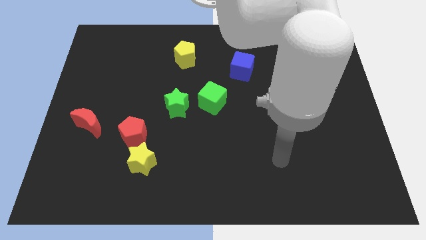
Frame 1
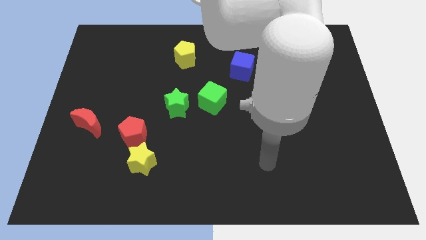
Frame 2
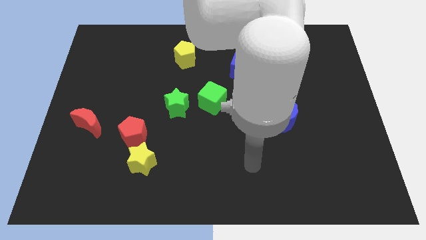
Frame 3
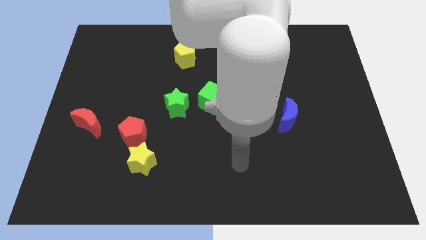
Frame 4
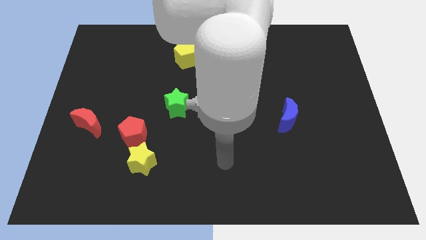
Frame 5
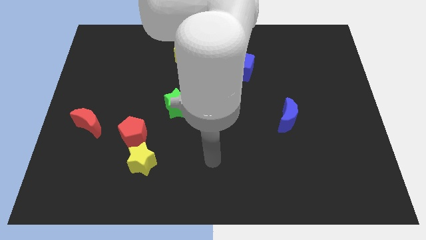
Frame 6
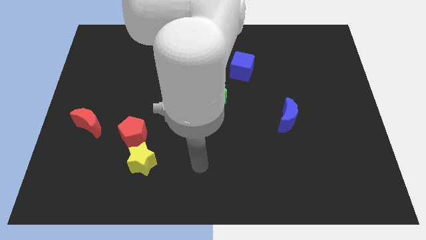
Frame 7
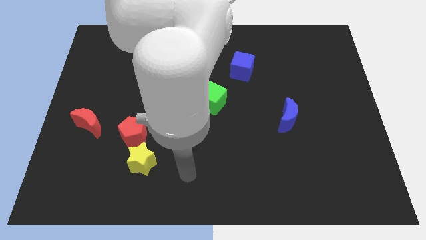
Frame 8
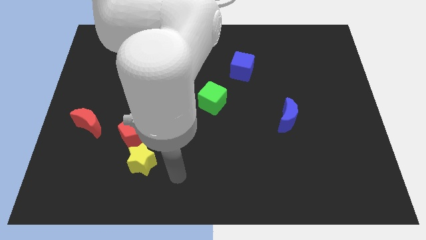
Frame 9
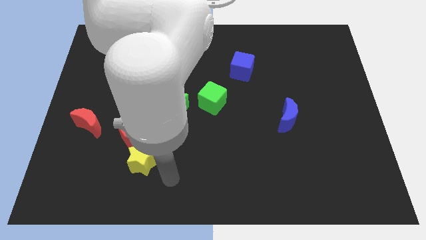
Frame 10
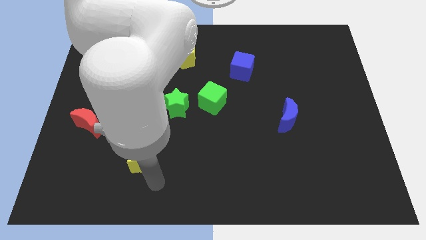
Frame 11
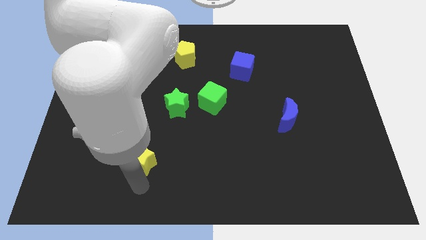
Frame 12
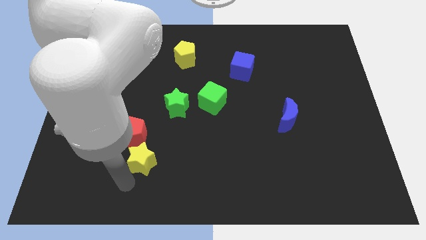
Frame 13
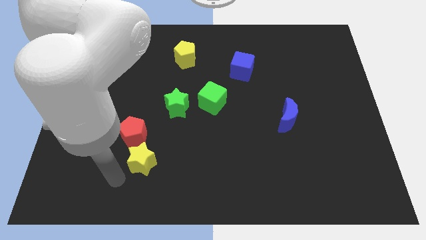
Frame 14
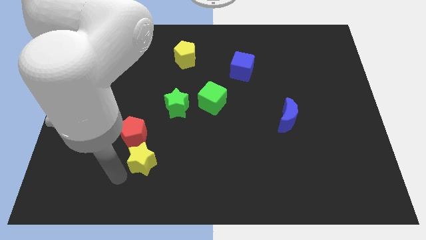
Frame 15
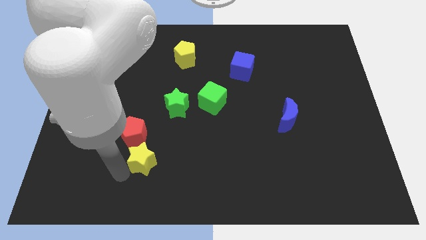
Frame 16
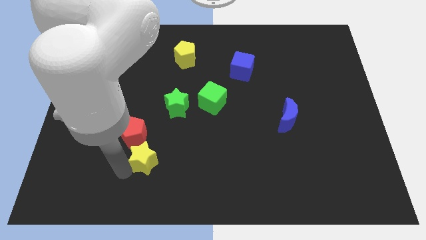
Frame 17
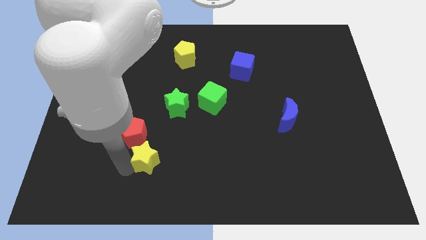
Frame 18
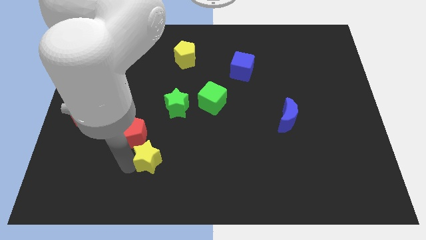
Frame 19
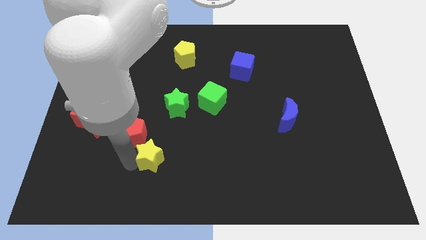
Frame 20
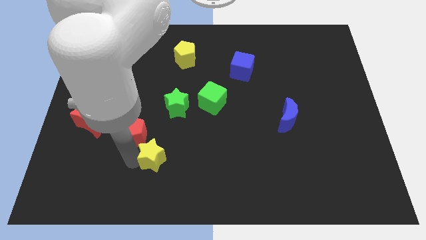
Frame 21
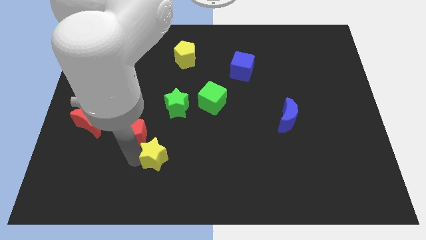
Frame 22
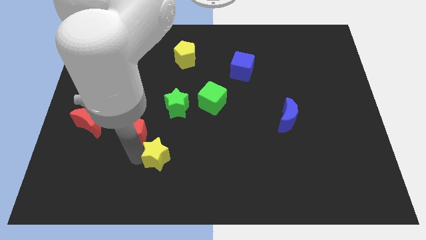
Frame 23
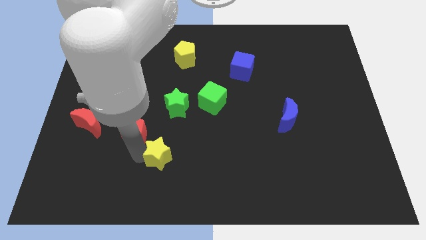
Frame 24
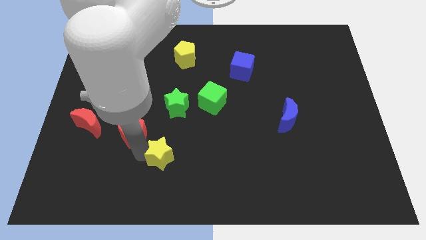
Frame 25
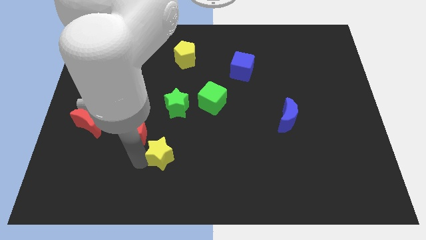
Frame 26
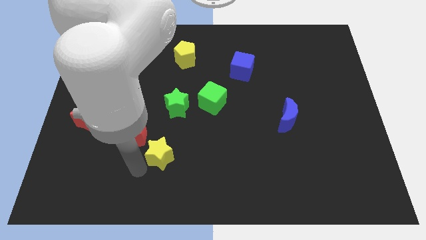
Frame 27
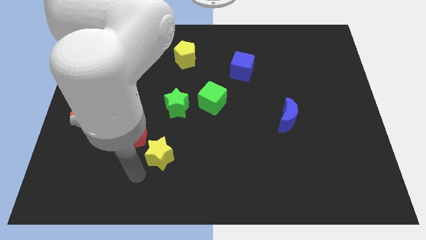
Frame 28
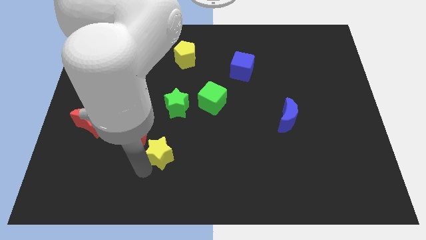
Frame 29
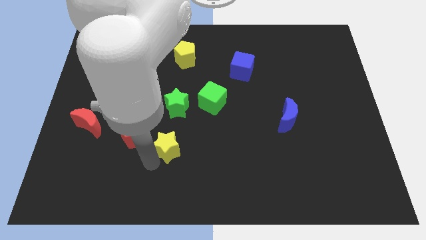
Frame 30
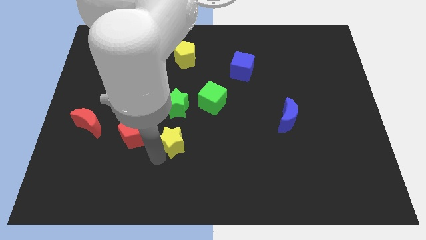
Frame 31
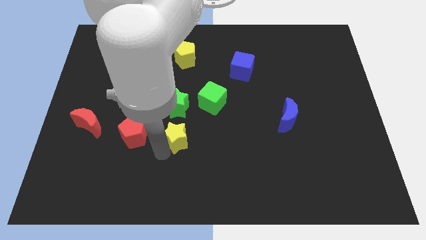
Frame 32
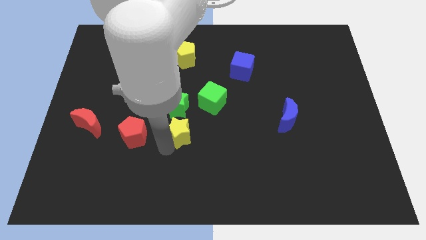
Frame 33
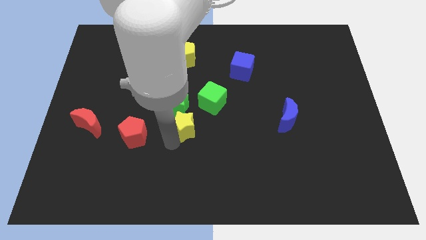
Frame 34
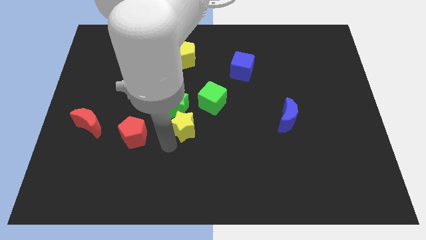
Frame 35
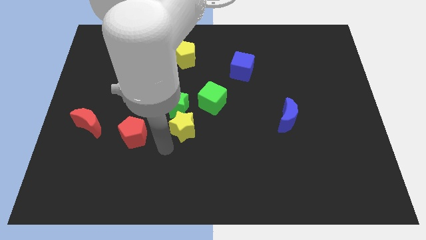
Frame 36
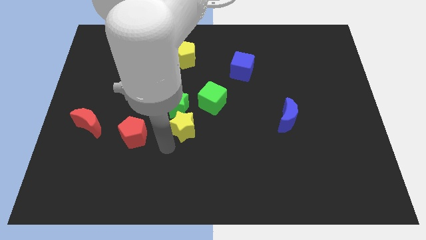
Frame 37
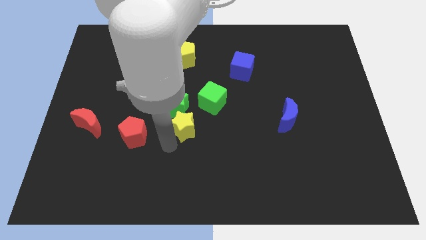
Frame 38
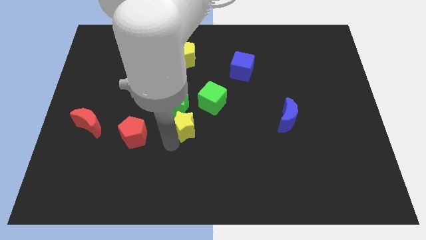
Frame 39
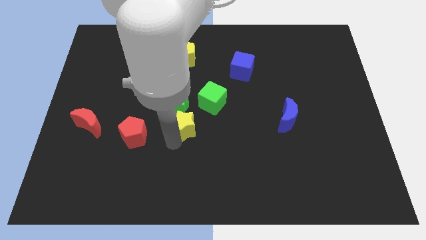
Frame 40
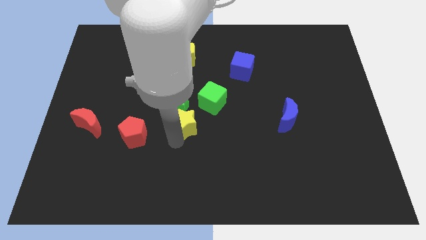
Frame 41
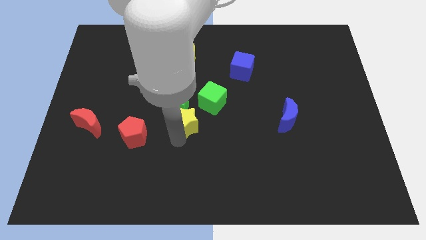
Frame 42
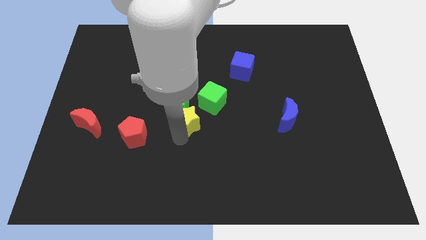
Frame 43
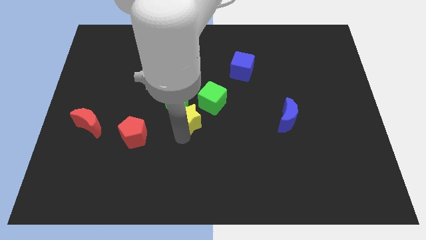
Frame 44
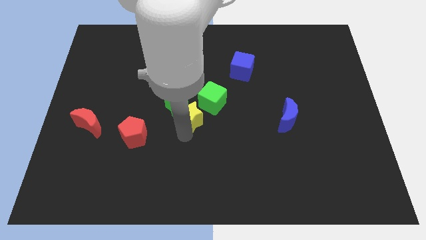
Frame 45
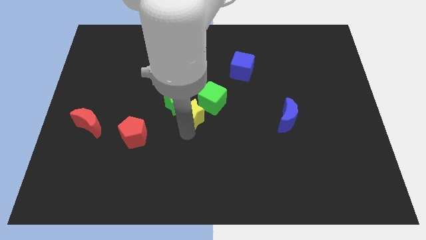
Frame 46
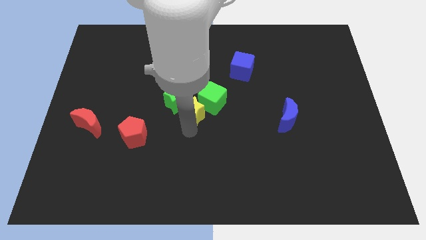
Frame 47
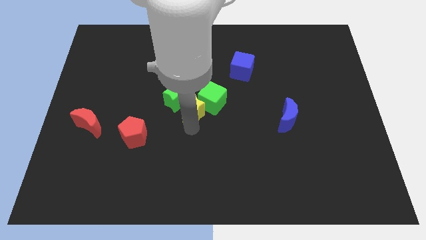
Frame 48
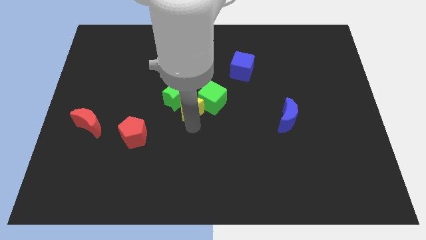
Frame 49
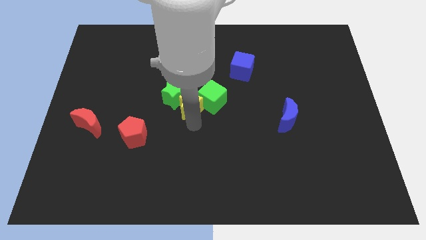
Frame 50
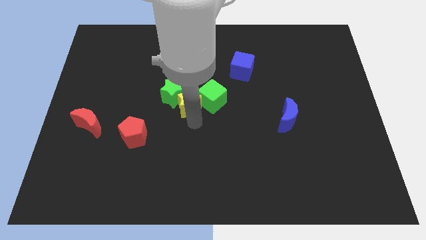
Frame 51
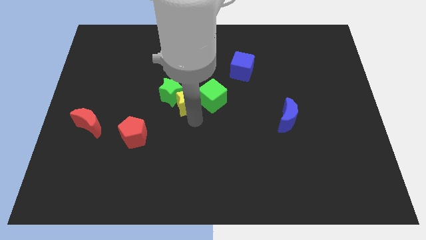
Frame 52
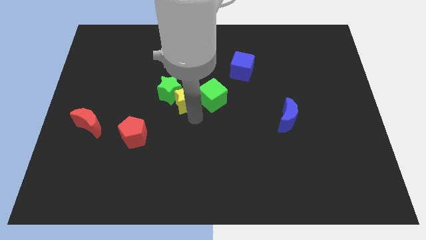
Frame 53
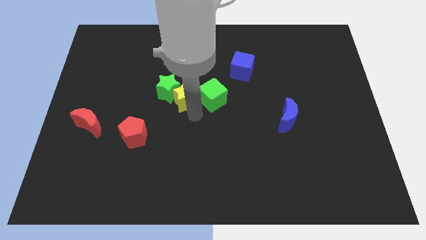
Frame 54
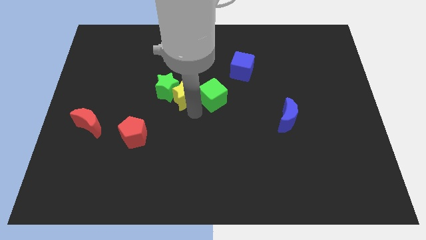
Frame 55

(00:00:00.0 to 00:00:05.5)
push the yellow star diagonally up and to the left of the green cube

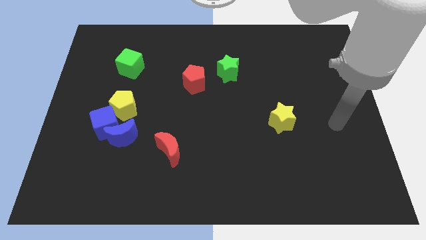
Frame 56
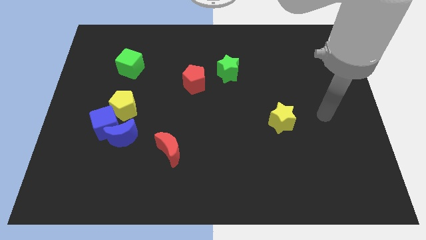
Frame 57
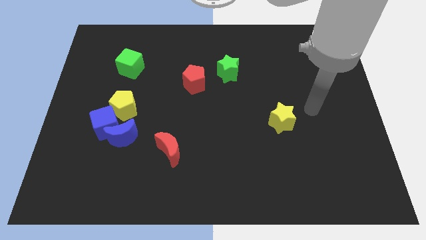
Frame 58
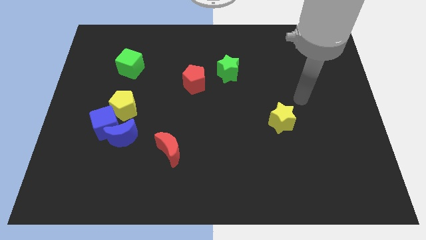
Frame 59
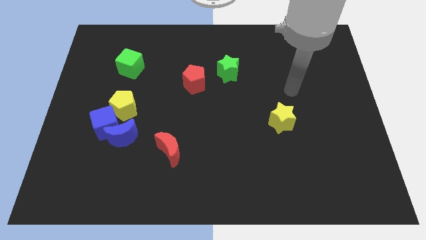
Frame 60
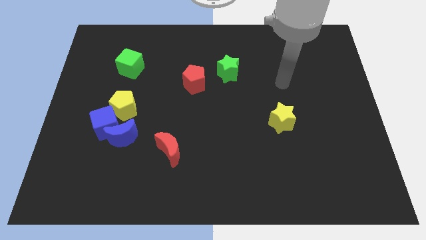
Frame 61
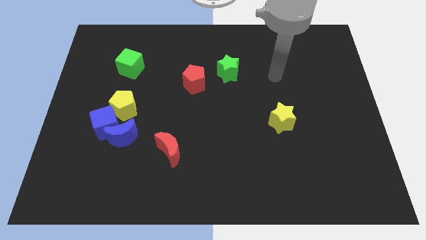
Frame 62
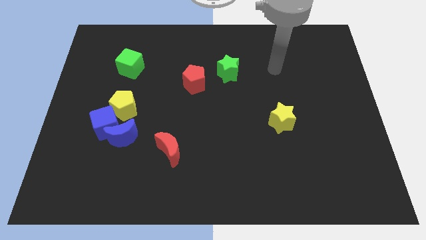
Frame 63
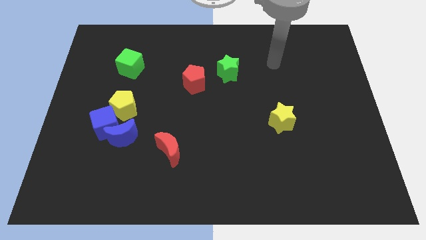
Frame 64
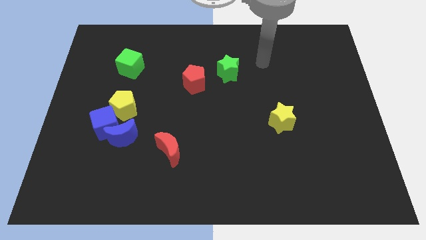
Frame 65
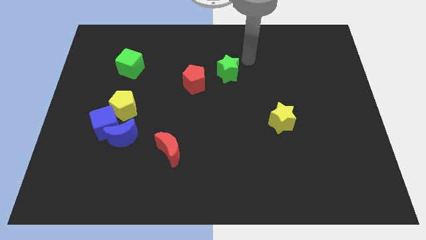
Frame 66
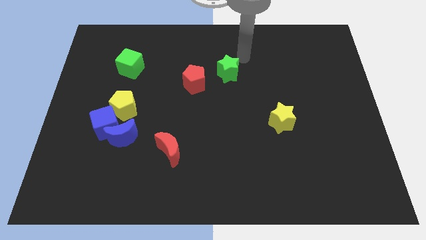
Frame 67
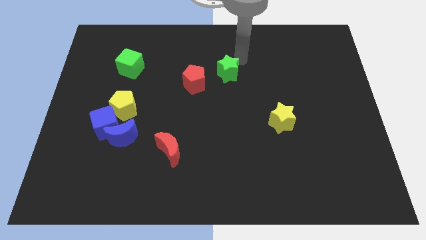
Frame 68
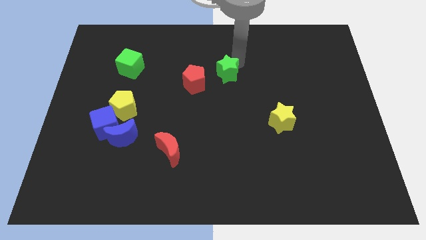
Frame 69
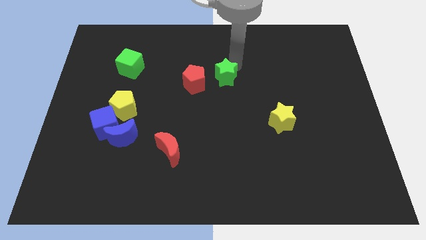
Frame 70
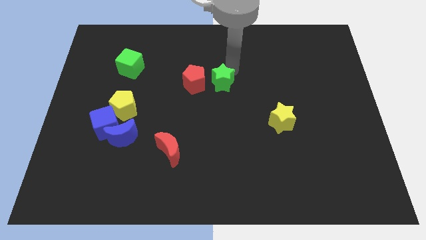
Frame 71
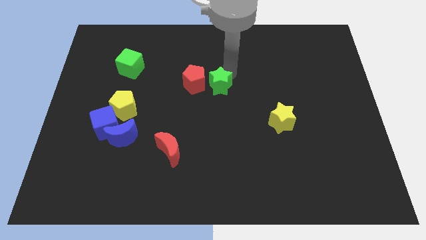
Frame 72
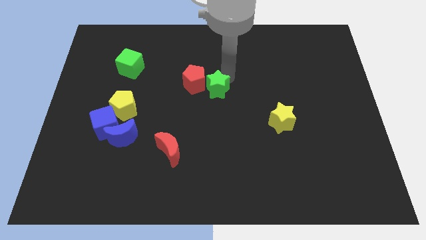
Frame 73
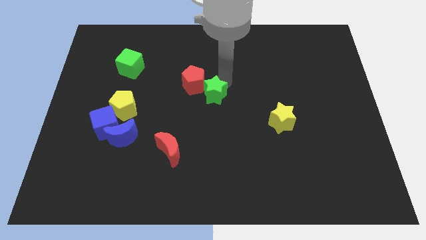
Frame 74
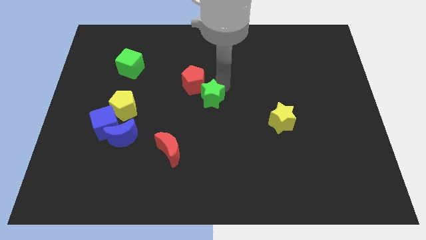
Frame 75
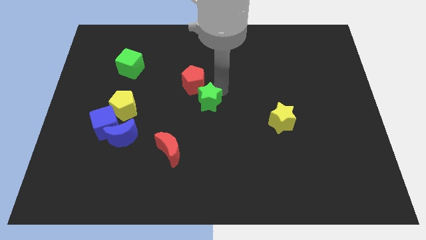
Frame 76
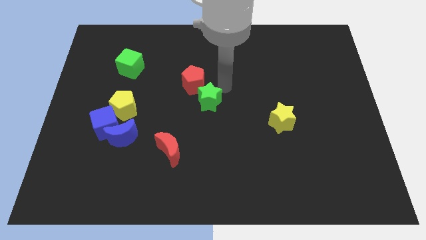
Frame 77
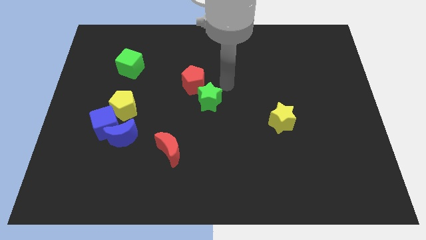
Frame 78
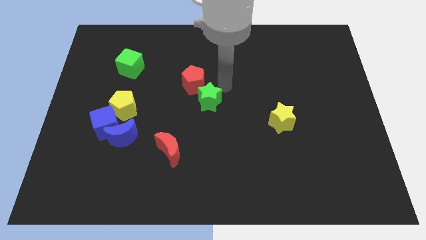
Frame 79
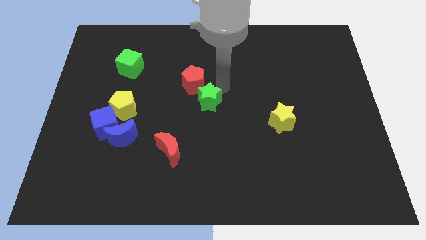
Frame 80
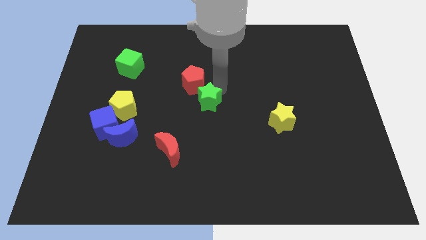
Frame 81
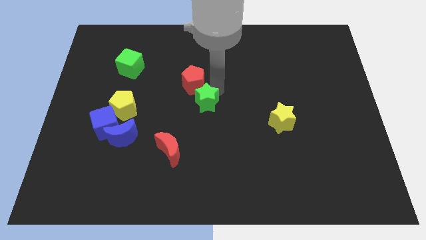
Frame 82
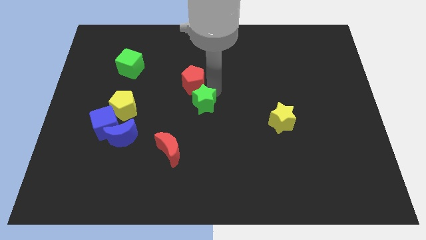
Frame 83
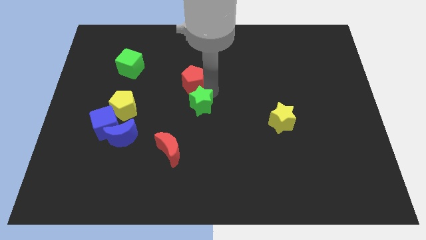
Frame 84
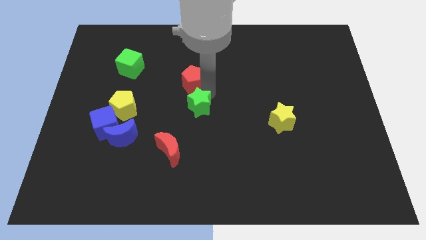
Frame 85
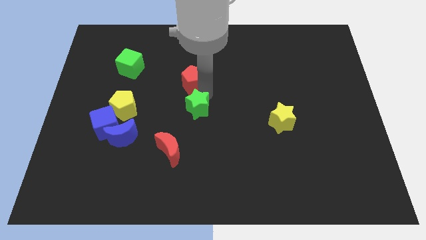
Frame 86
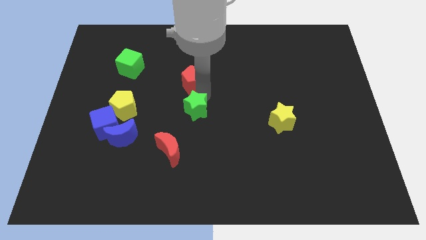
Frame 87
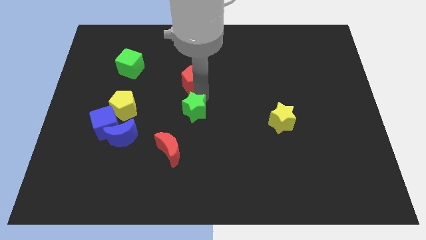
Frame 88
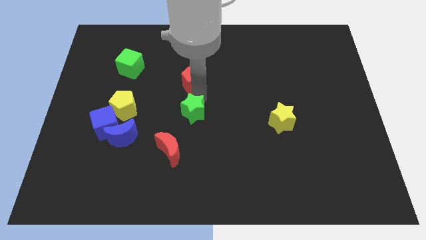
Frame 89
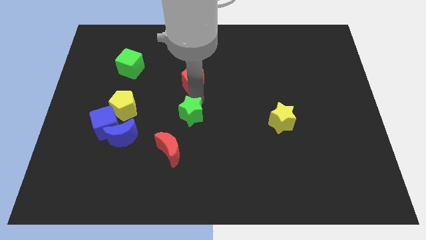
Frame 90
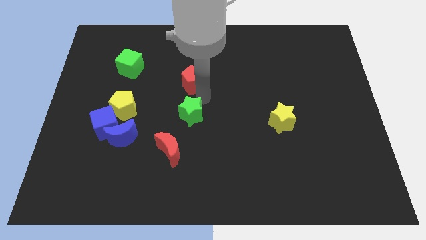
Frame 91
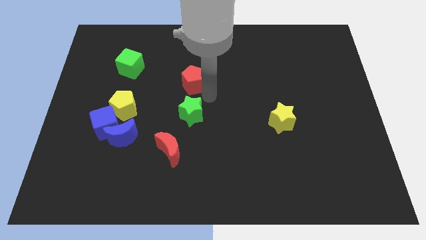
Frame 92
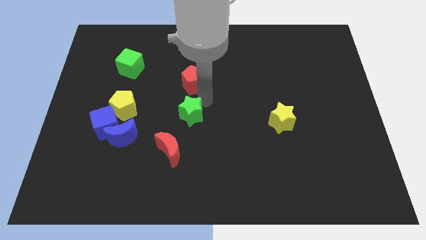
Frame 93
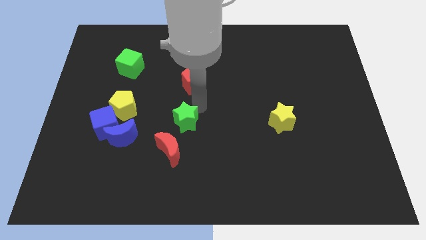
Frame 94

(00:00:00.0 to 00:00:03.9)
move the green star right of the blue moon
